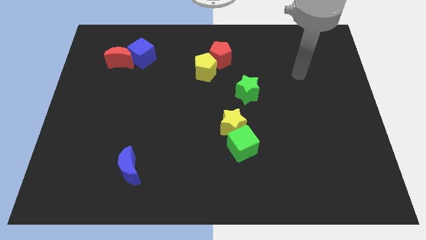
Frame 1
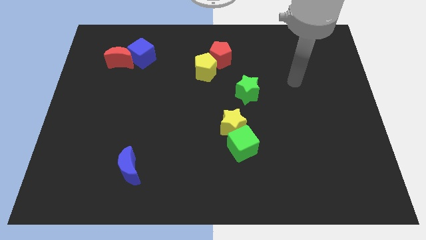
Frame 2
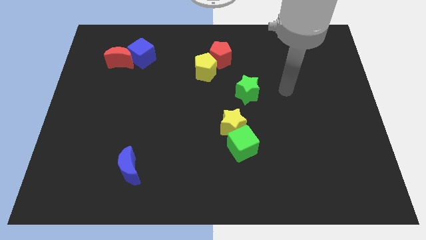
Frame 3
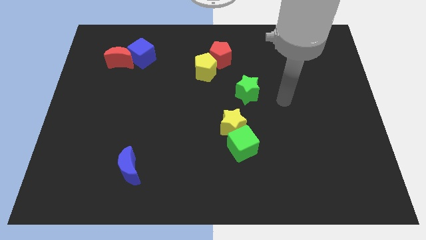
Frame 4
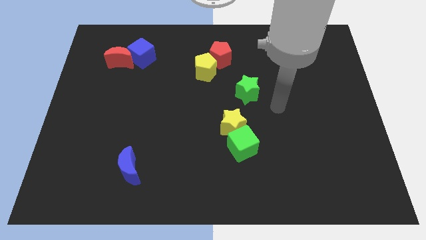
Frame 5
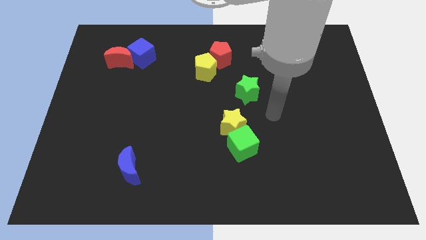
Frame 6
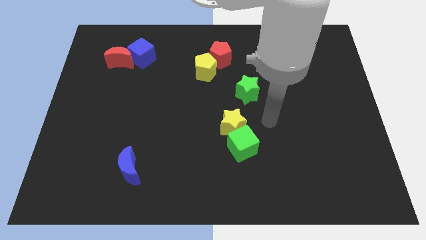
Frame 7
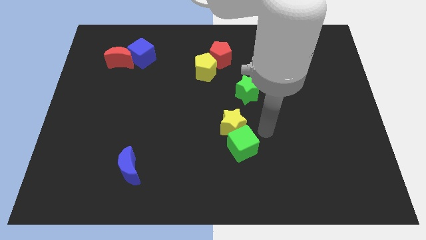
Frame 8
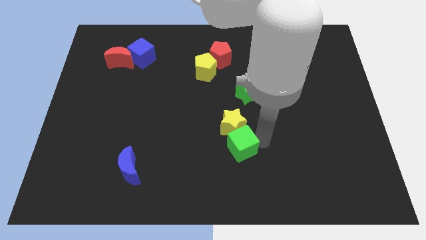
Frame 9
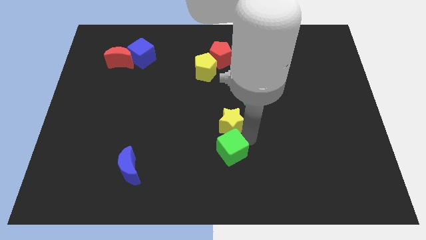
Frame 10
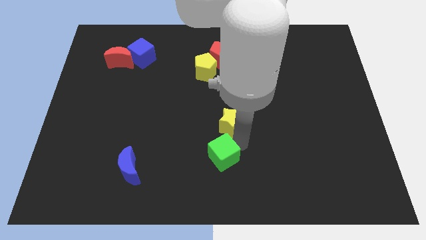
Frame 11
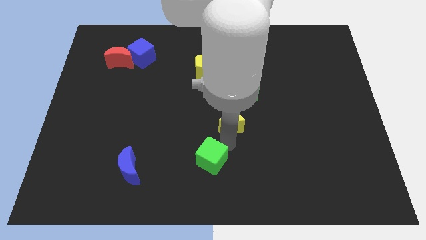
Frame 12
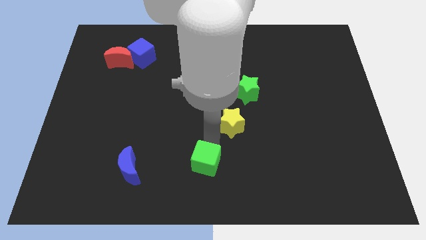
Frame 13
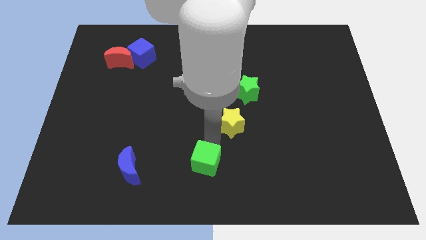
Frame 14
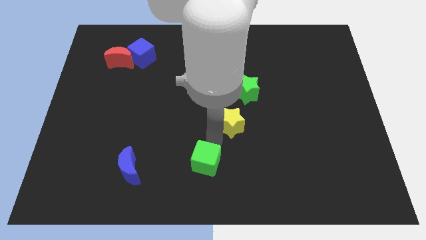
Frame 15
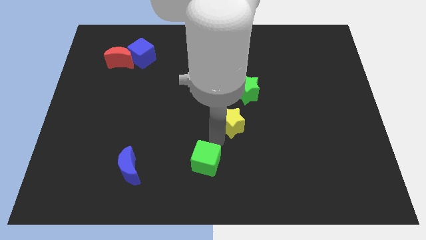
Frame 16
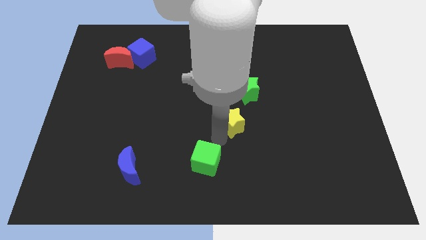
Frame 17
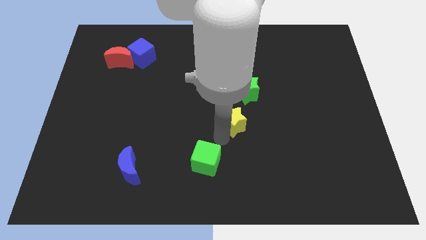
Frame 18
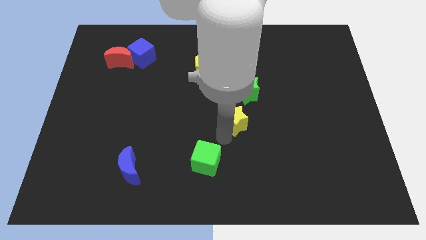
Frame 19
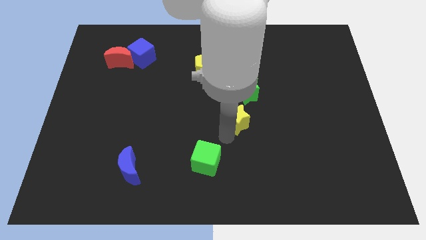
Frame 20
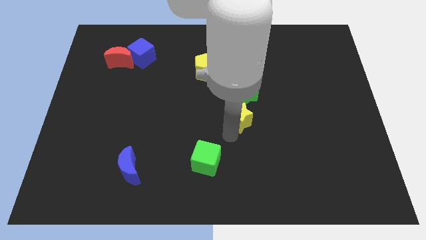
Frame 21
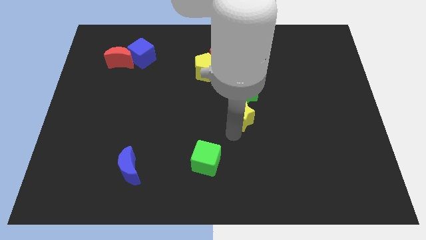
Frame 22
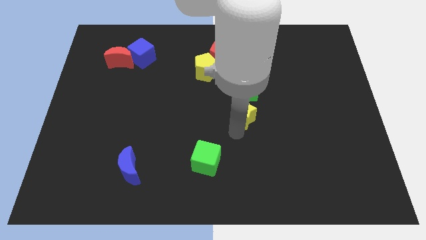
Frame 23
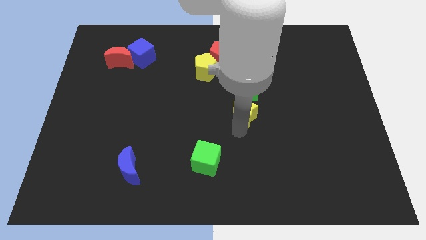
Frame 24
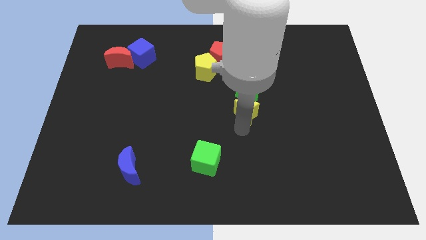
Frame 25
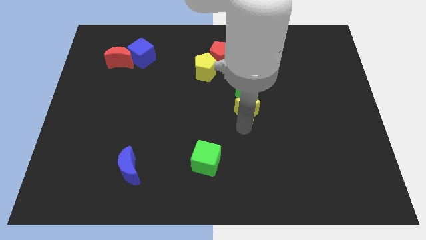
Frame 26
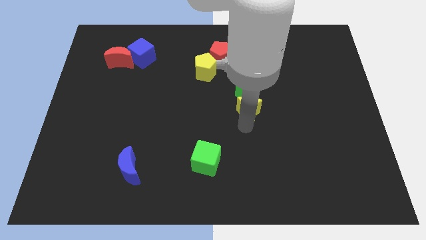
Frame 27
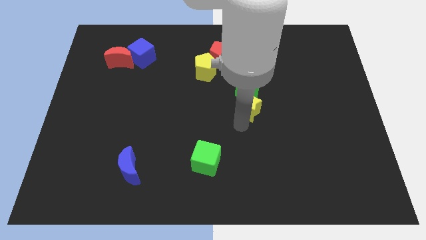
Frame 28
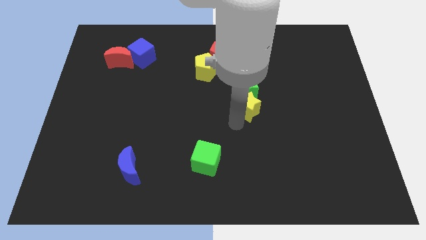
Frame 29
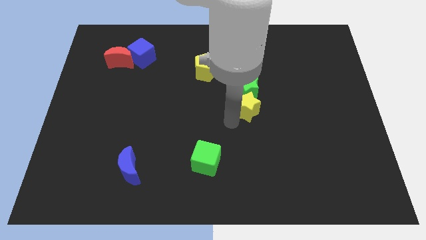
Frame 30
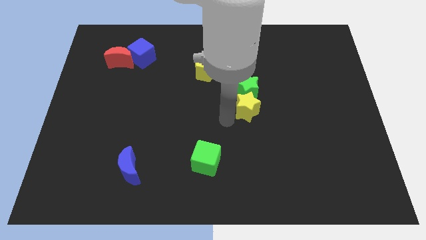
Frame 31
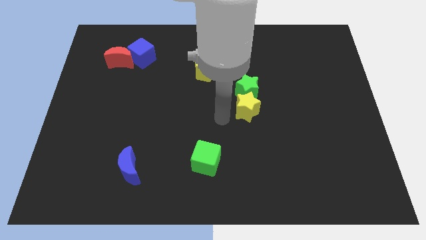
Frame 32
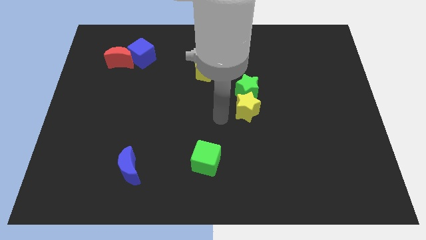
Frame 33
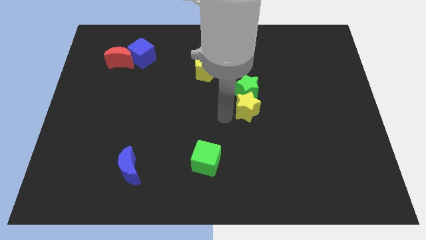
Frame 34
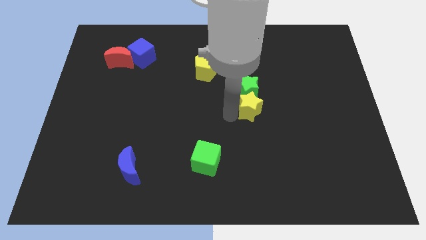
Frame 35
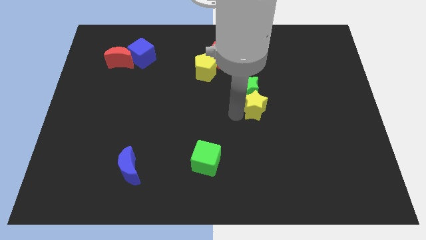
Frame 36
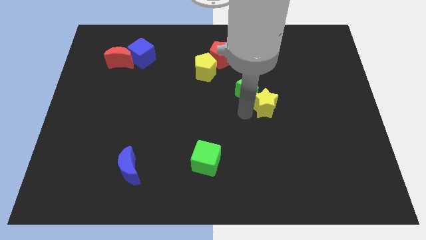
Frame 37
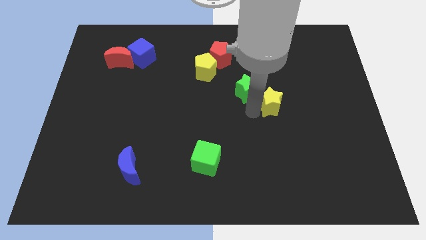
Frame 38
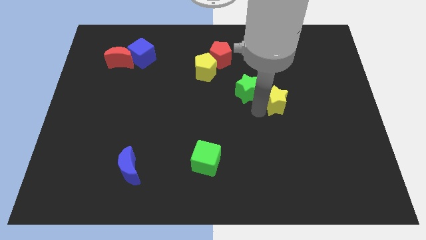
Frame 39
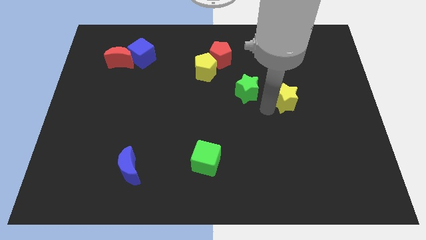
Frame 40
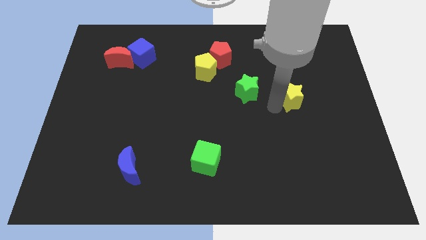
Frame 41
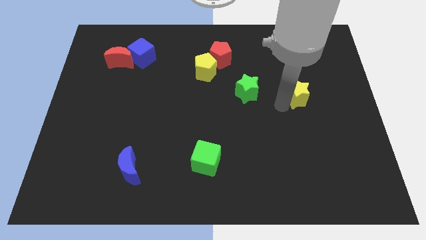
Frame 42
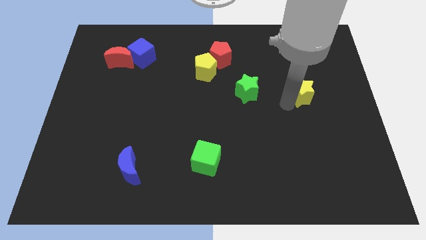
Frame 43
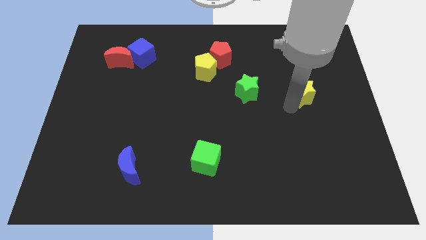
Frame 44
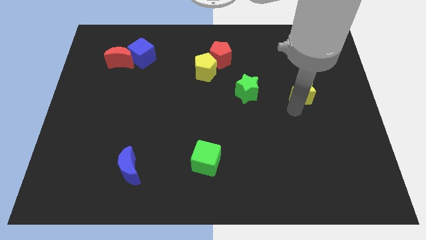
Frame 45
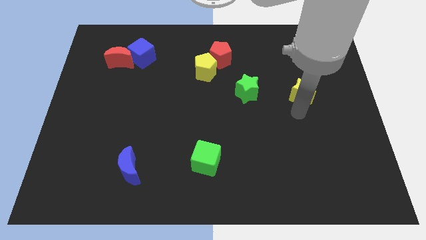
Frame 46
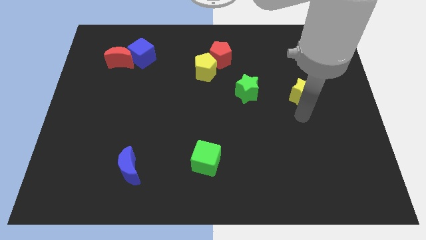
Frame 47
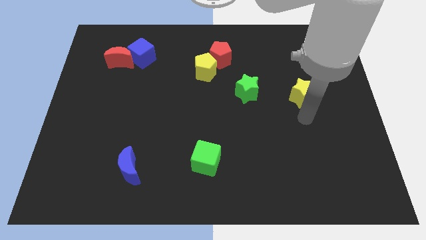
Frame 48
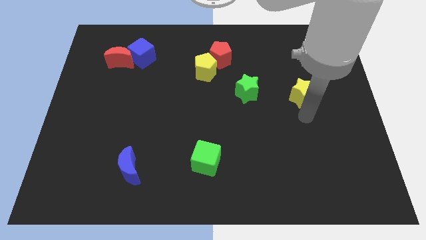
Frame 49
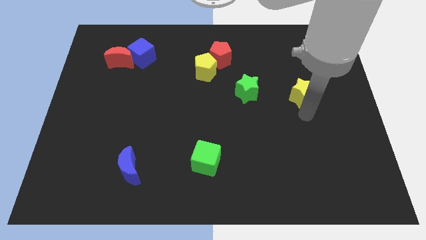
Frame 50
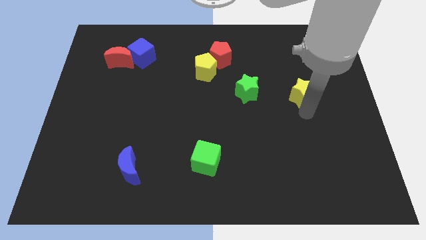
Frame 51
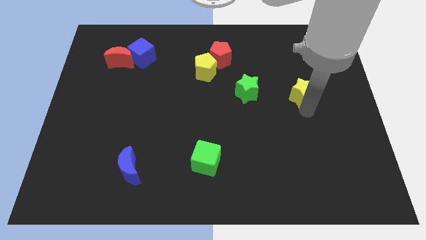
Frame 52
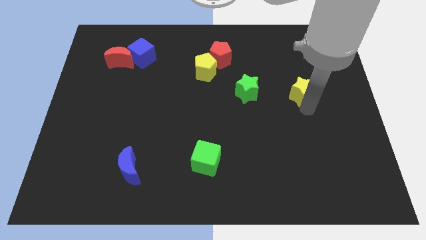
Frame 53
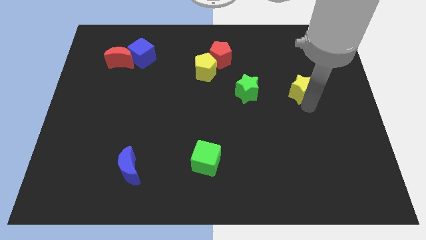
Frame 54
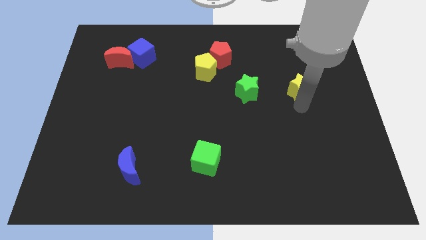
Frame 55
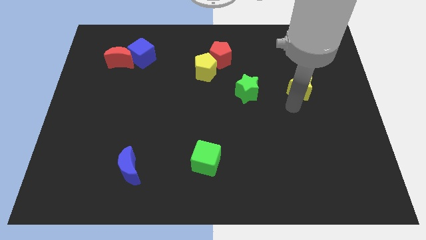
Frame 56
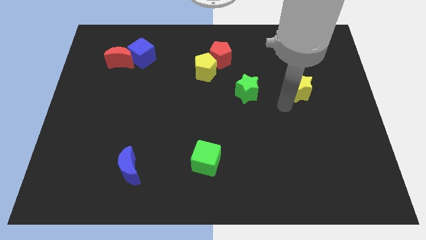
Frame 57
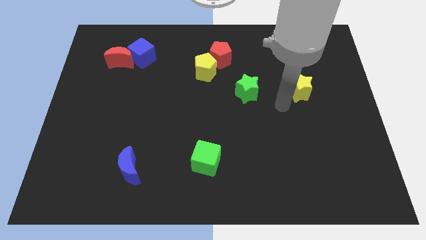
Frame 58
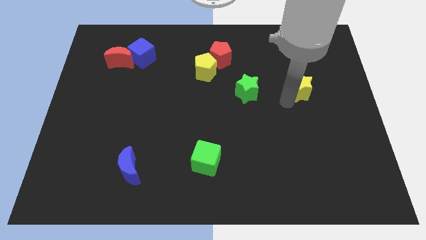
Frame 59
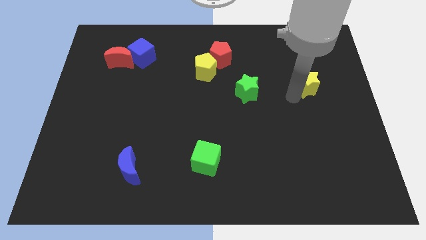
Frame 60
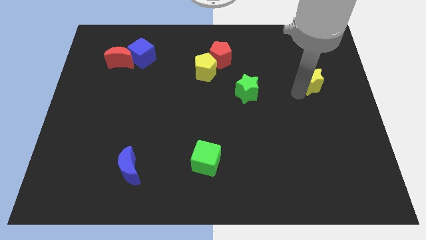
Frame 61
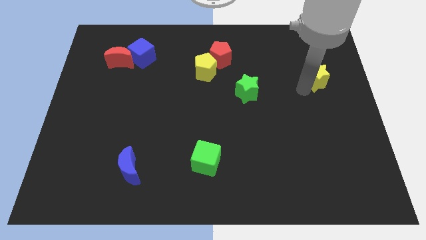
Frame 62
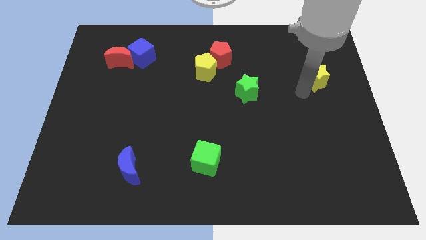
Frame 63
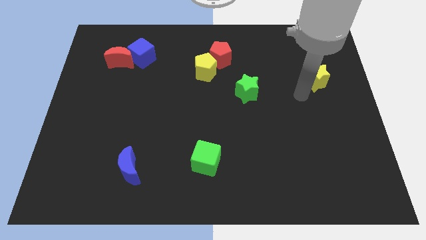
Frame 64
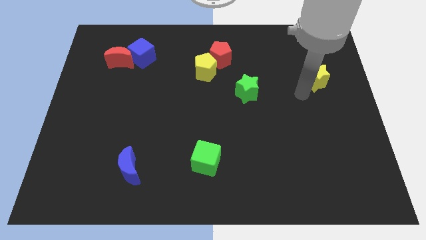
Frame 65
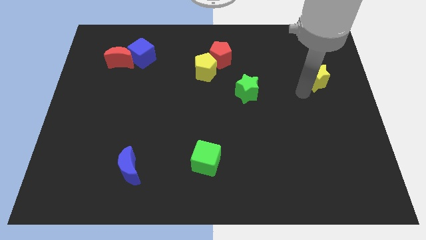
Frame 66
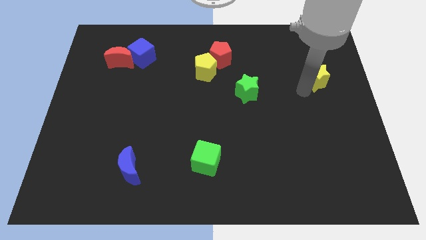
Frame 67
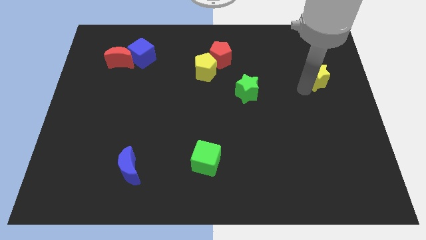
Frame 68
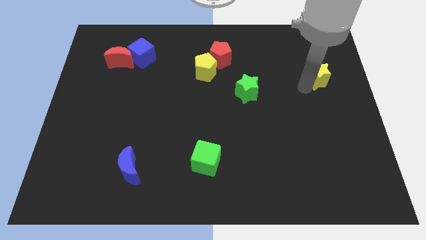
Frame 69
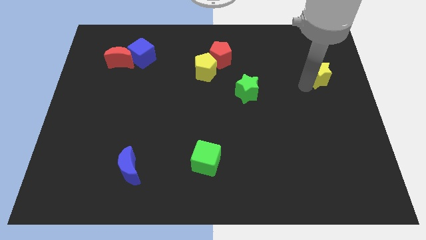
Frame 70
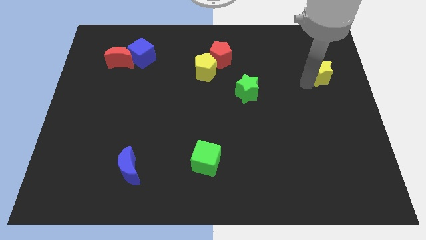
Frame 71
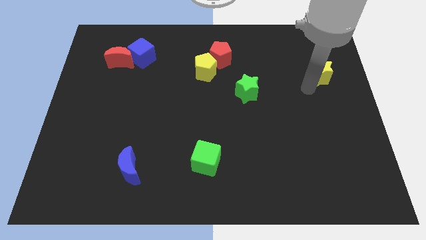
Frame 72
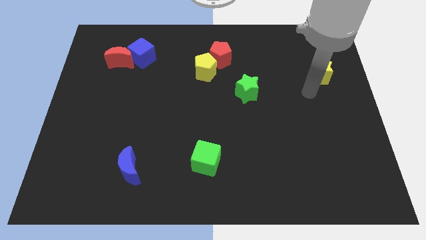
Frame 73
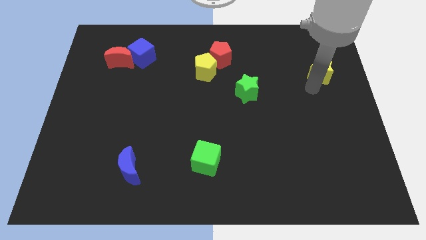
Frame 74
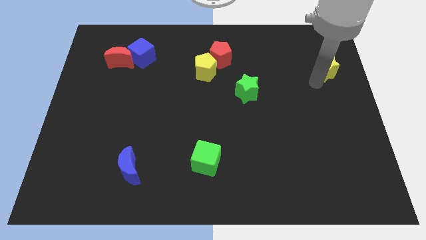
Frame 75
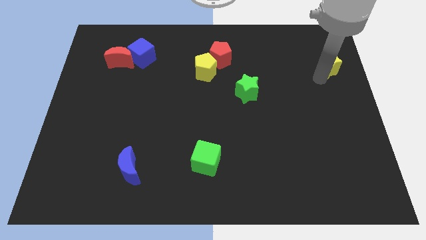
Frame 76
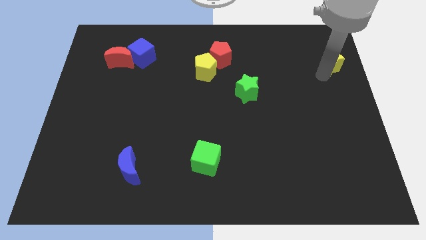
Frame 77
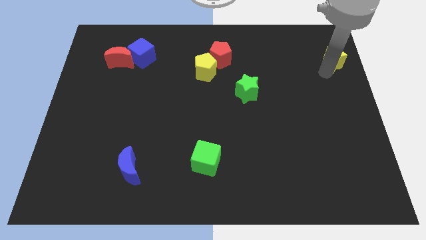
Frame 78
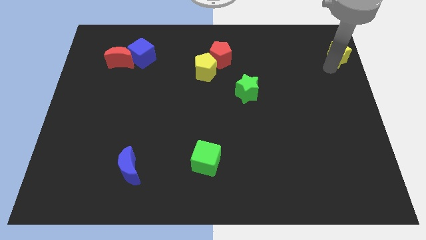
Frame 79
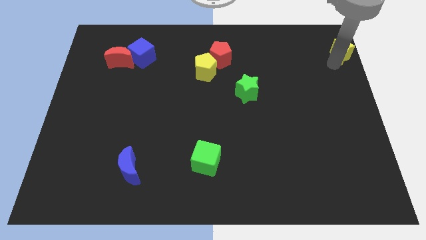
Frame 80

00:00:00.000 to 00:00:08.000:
slide the yellow star to the top right of the board
